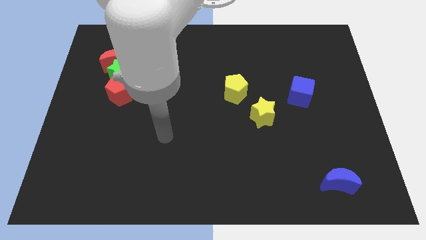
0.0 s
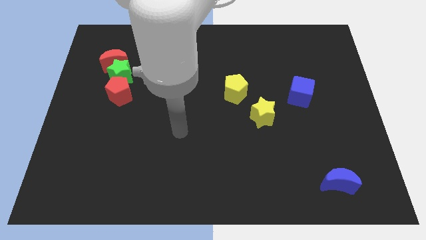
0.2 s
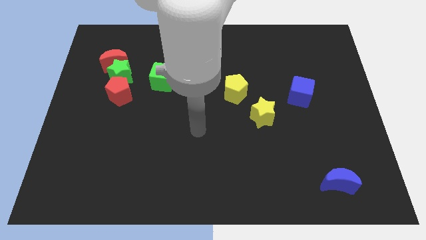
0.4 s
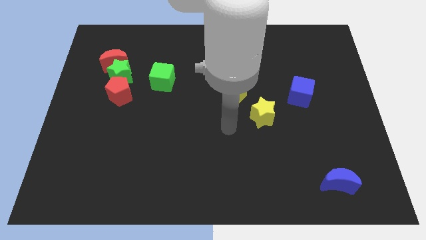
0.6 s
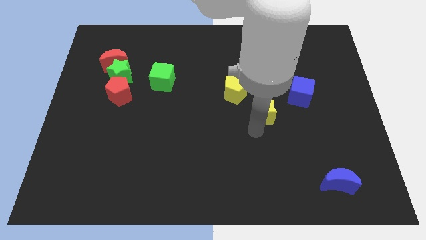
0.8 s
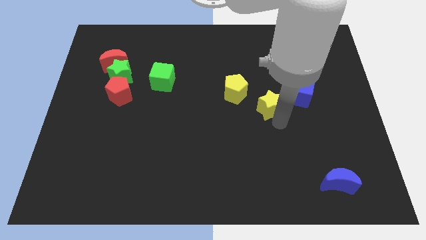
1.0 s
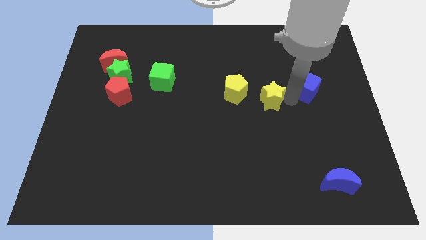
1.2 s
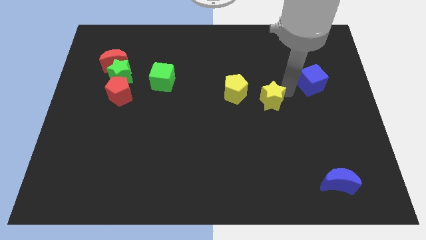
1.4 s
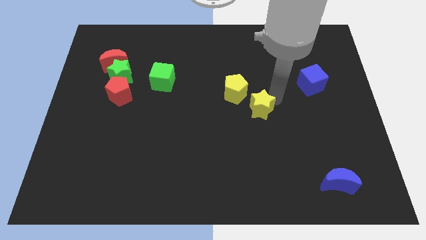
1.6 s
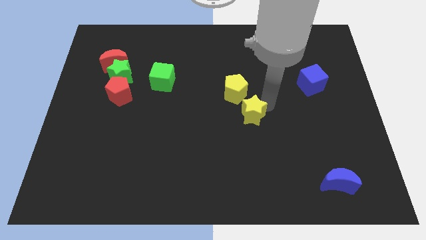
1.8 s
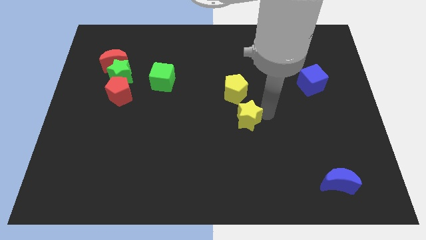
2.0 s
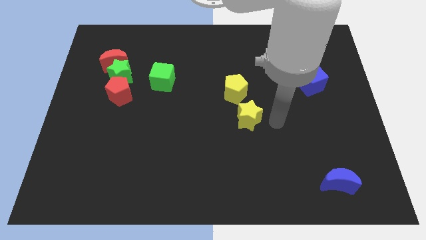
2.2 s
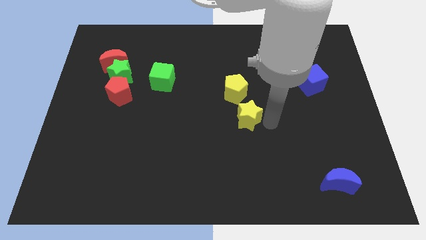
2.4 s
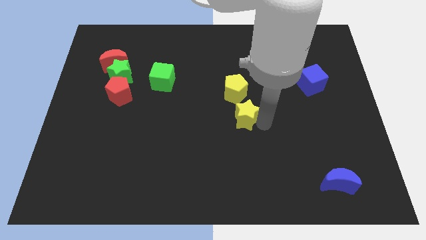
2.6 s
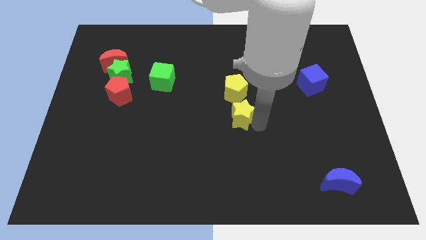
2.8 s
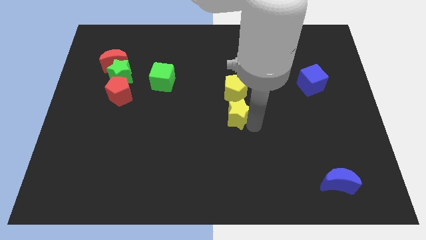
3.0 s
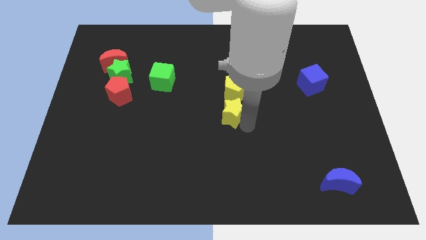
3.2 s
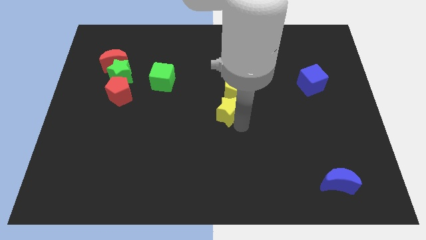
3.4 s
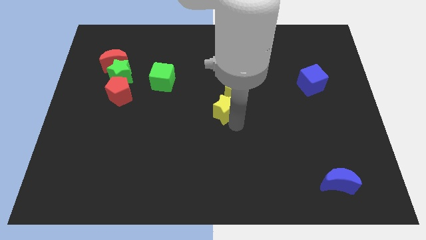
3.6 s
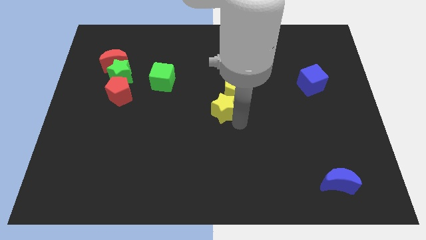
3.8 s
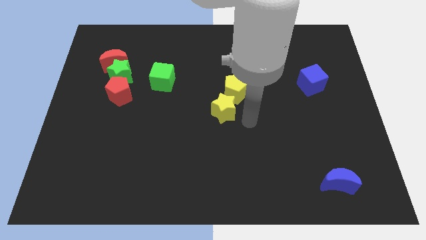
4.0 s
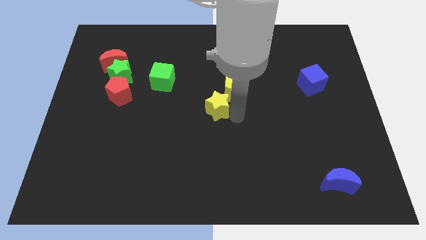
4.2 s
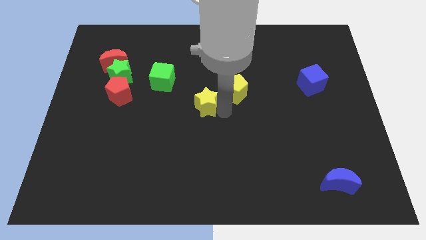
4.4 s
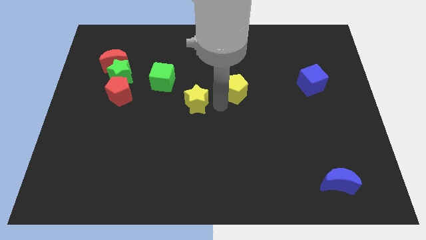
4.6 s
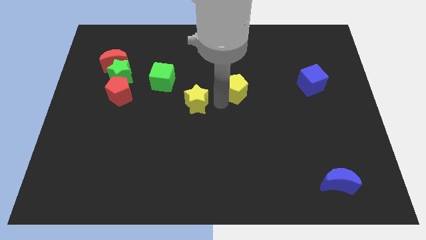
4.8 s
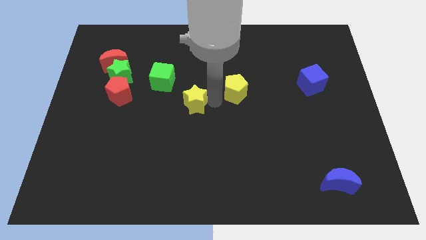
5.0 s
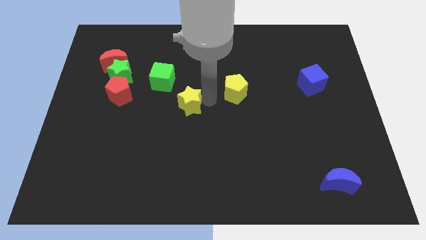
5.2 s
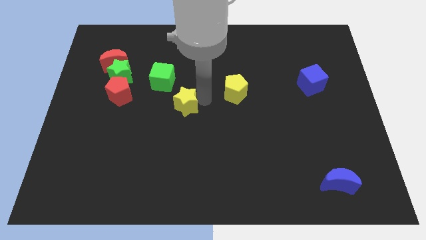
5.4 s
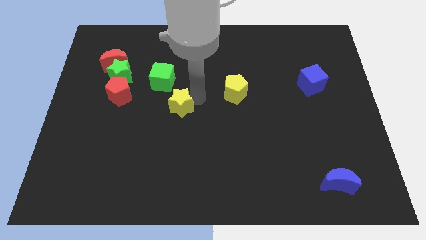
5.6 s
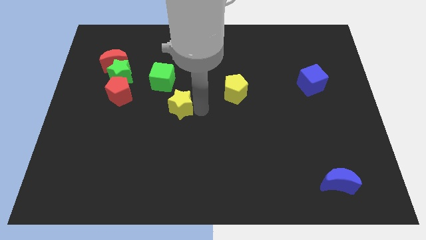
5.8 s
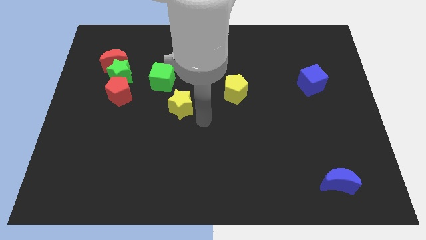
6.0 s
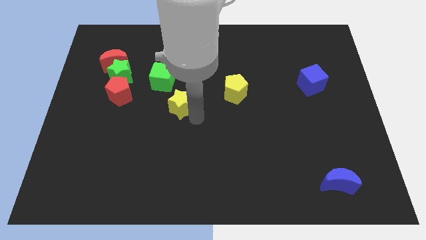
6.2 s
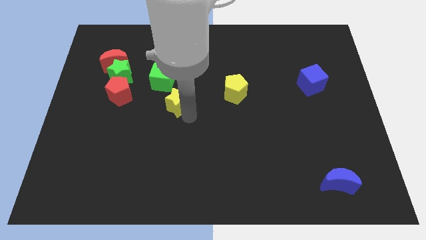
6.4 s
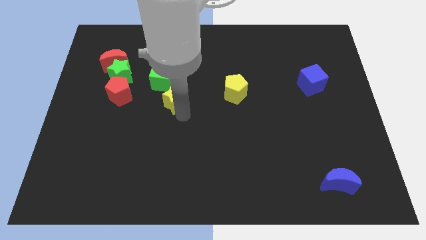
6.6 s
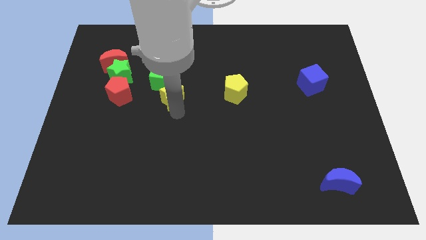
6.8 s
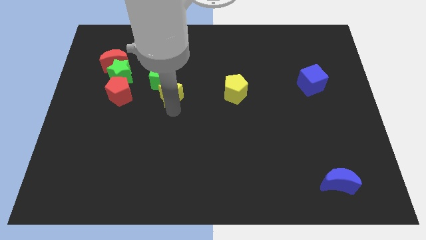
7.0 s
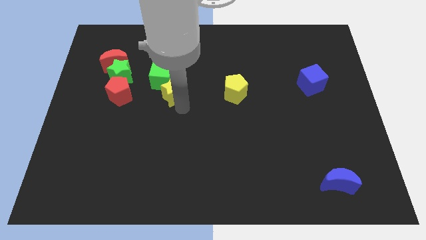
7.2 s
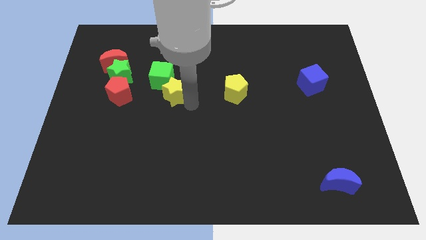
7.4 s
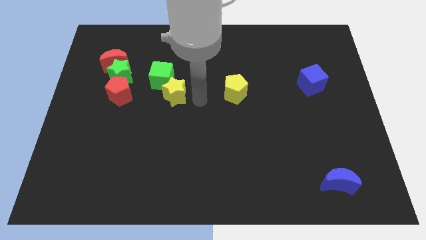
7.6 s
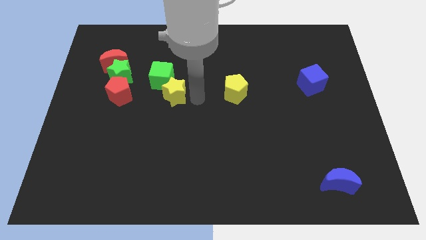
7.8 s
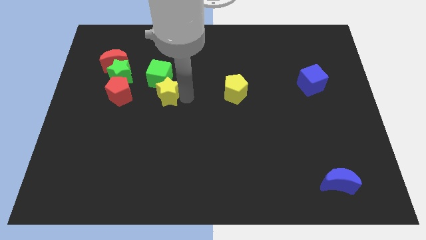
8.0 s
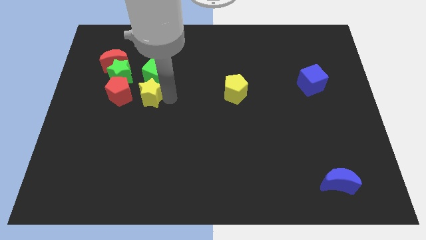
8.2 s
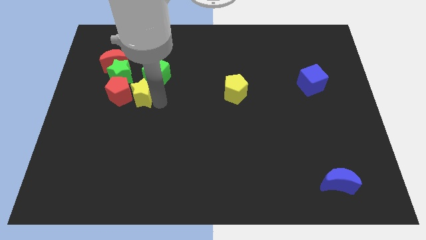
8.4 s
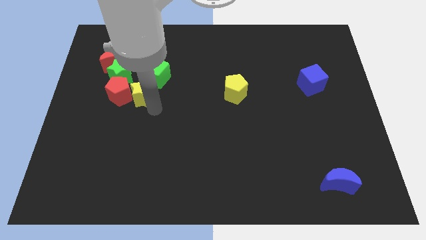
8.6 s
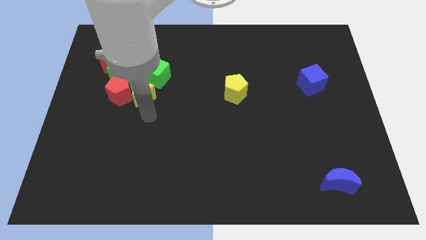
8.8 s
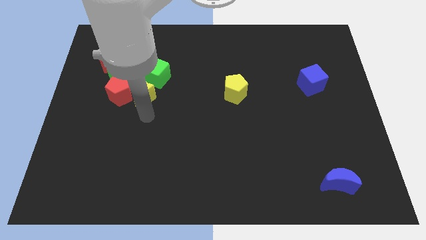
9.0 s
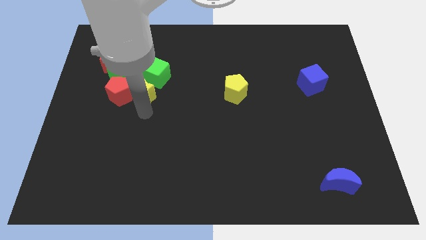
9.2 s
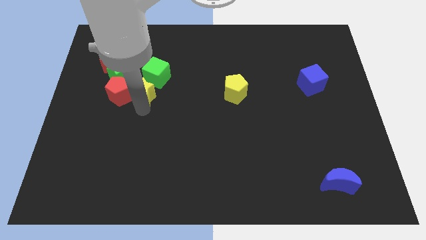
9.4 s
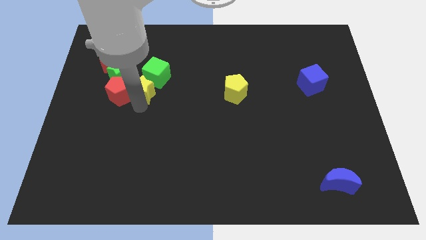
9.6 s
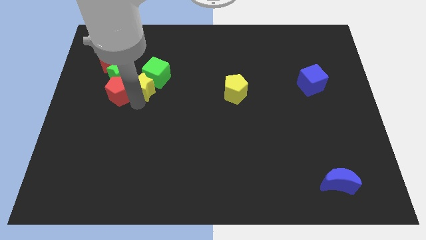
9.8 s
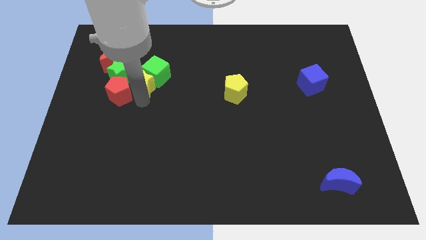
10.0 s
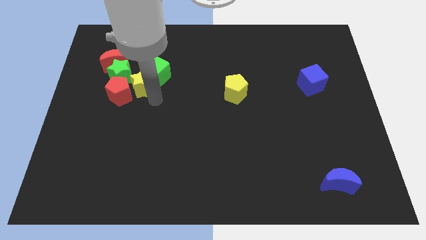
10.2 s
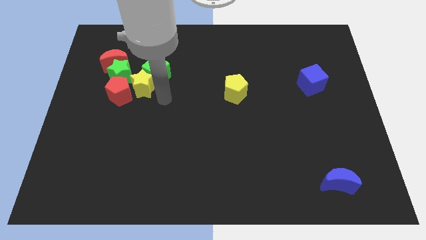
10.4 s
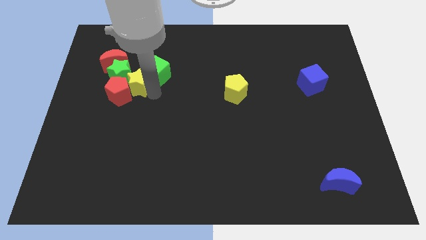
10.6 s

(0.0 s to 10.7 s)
push the yellow star to the green star

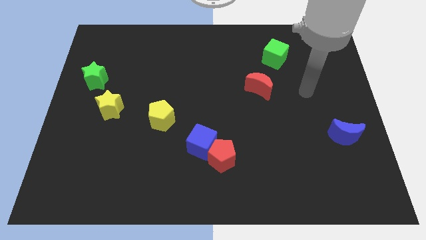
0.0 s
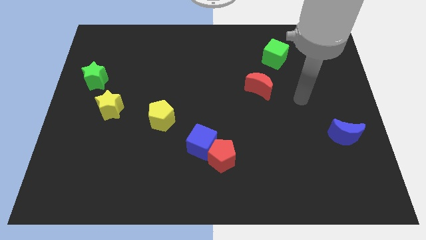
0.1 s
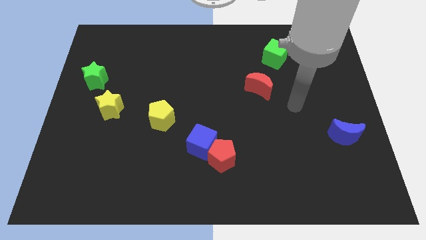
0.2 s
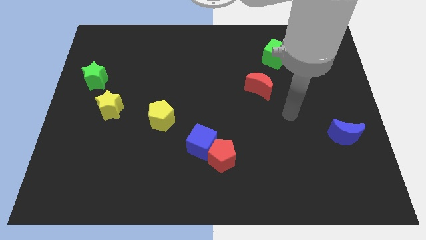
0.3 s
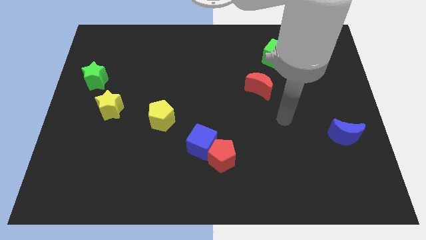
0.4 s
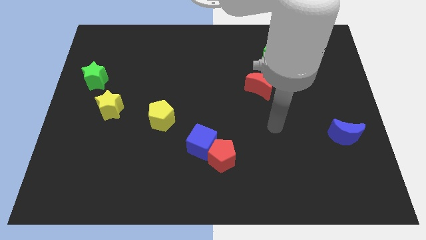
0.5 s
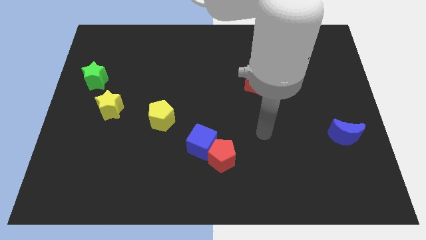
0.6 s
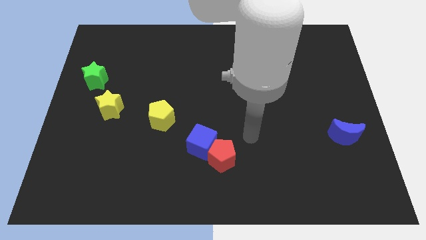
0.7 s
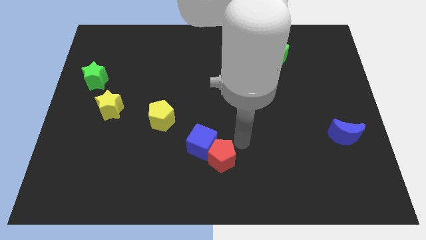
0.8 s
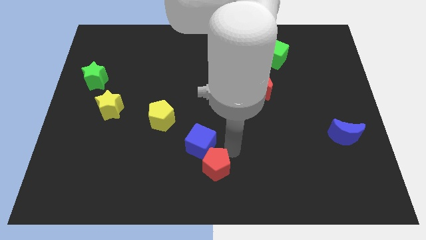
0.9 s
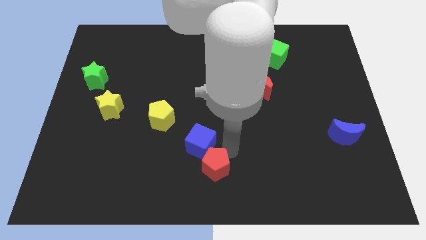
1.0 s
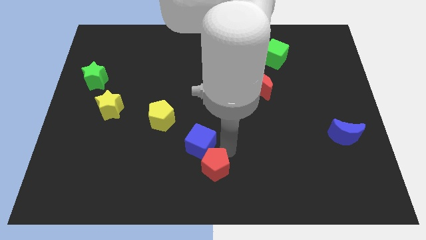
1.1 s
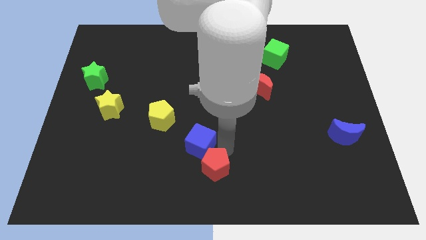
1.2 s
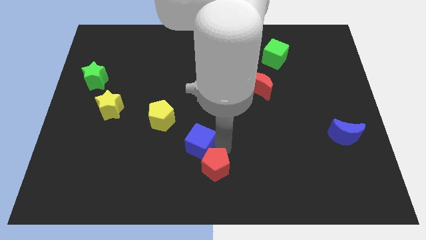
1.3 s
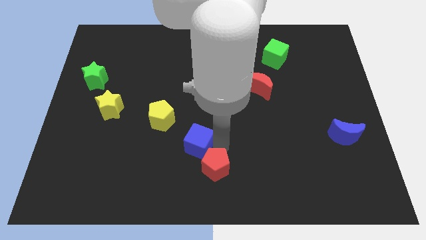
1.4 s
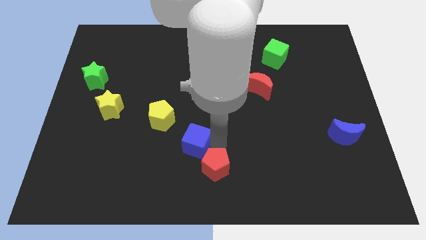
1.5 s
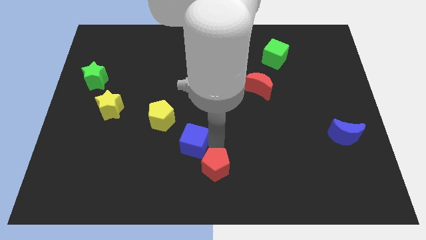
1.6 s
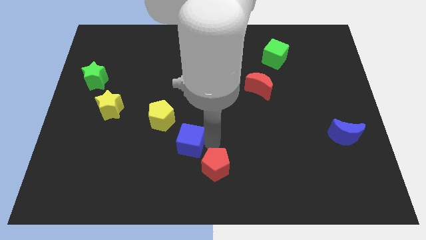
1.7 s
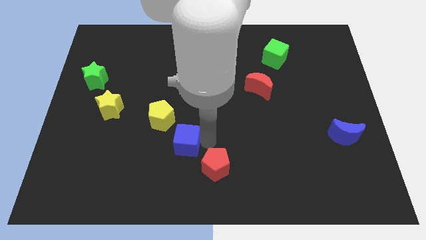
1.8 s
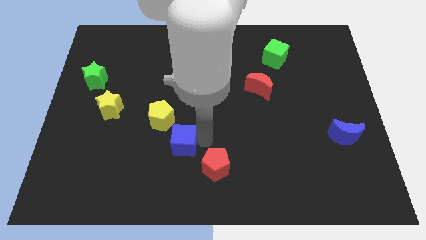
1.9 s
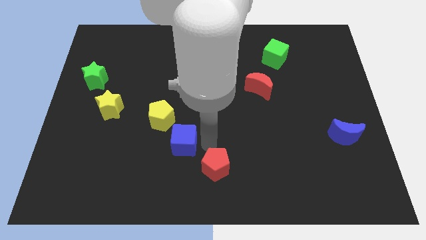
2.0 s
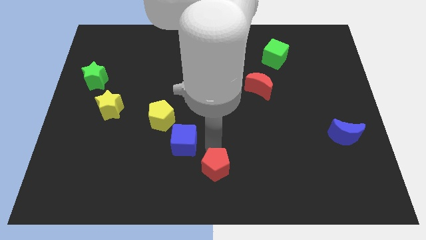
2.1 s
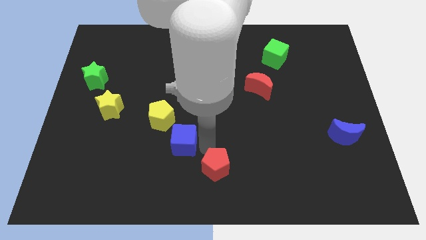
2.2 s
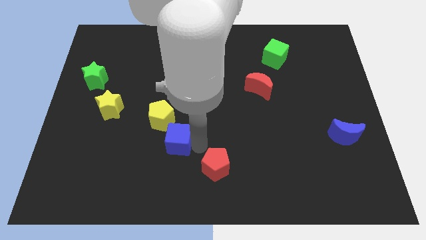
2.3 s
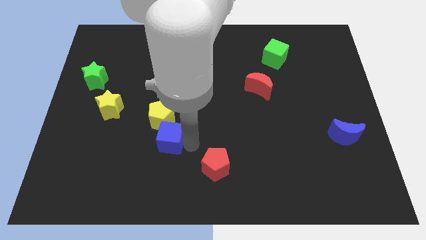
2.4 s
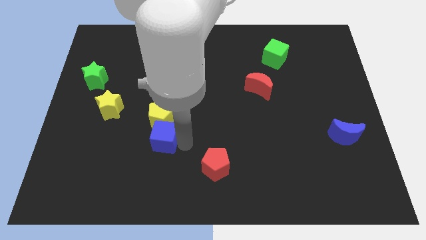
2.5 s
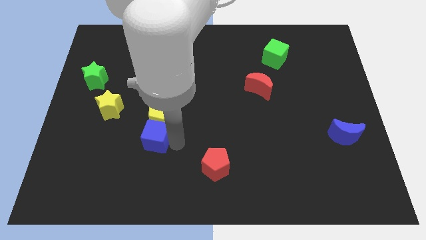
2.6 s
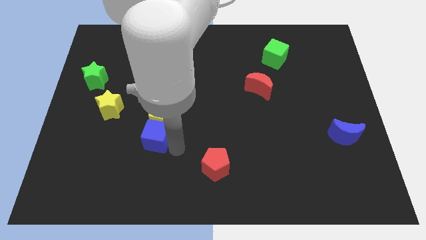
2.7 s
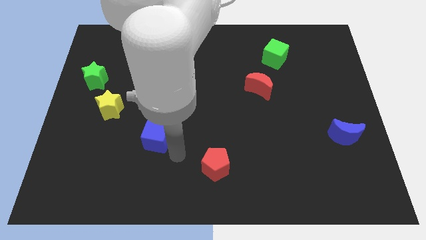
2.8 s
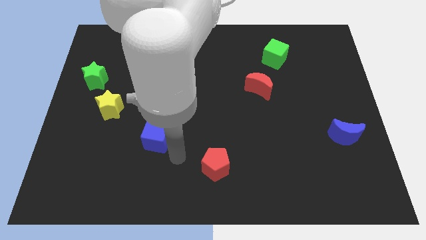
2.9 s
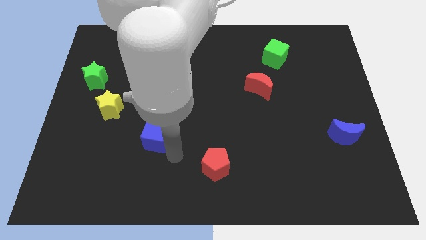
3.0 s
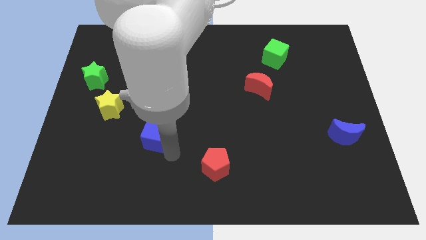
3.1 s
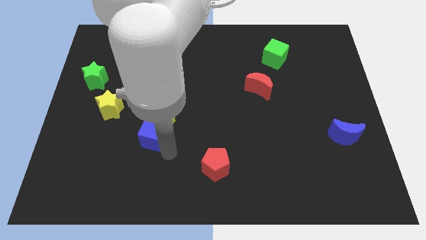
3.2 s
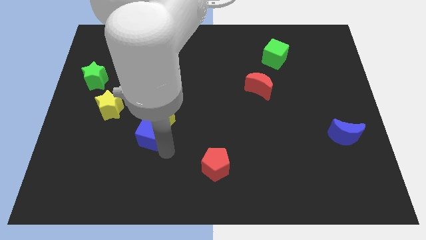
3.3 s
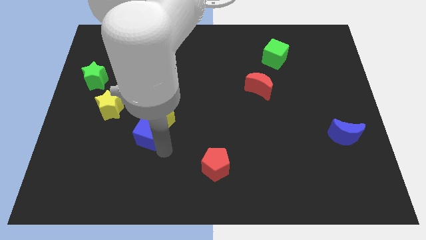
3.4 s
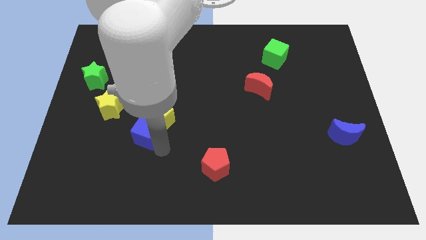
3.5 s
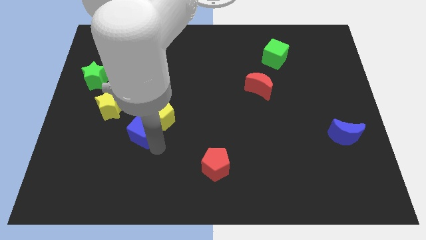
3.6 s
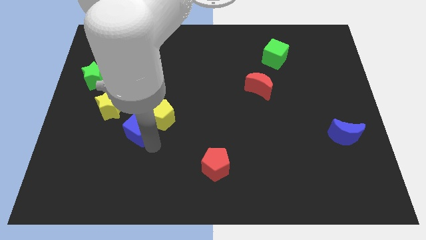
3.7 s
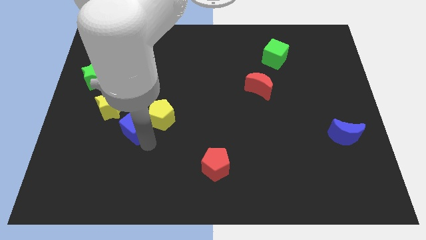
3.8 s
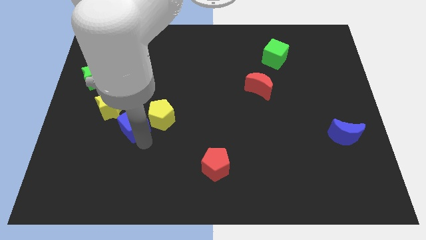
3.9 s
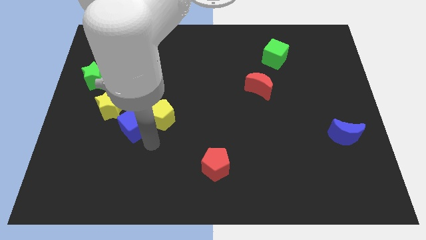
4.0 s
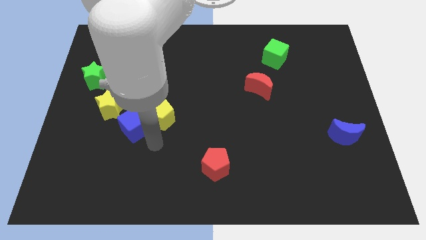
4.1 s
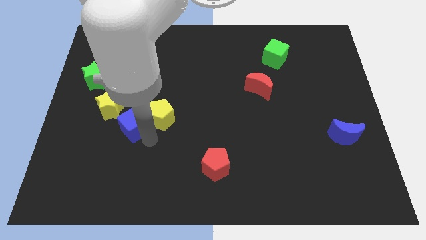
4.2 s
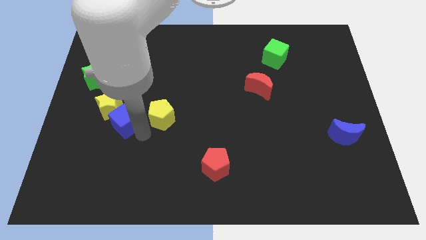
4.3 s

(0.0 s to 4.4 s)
slide the blue cube towards the yellow star
